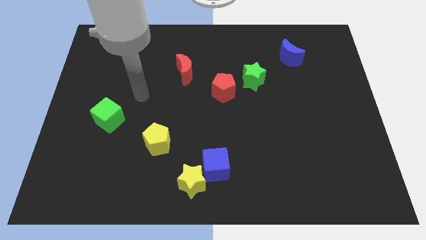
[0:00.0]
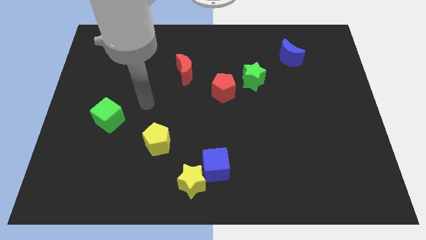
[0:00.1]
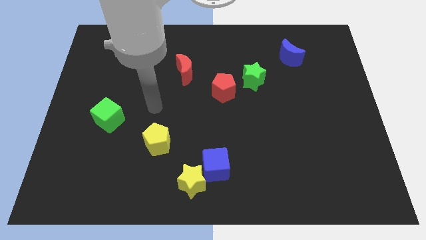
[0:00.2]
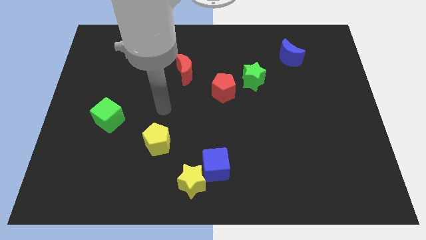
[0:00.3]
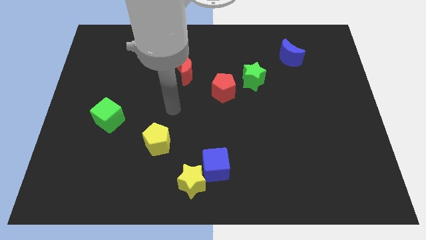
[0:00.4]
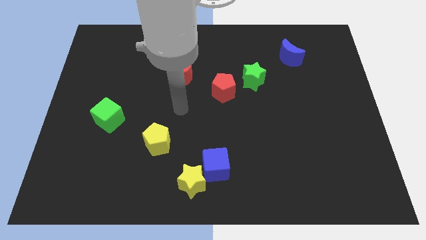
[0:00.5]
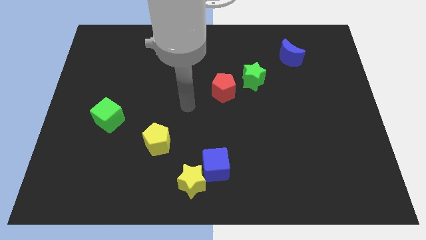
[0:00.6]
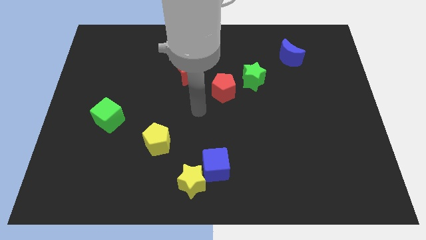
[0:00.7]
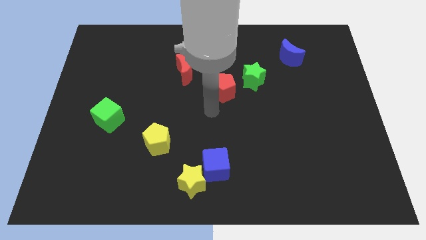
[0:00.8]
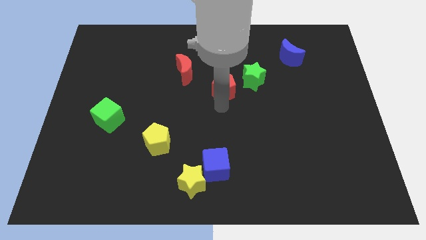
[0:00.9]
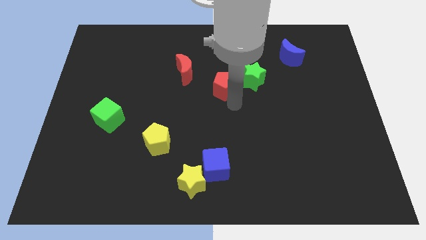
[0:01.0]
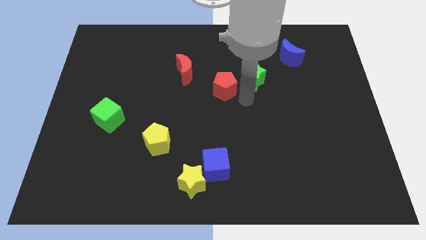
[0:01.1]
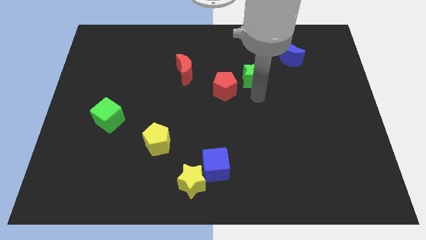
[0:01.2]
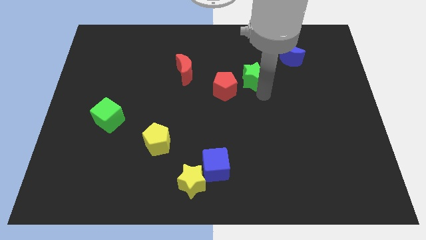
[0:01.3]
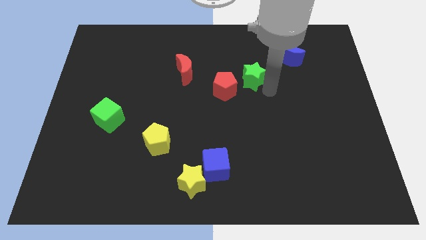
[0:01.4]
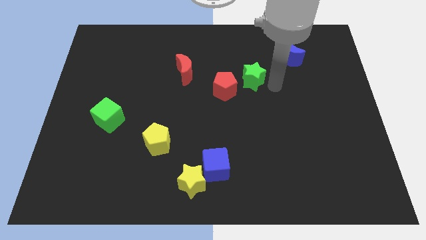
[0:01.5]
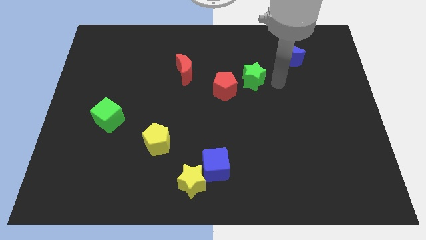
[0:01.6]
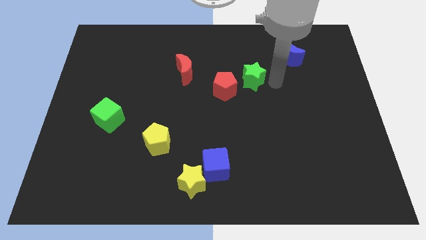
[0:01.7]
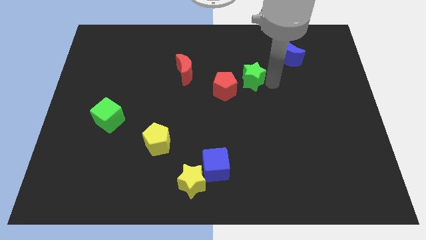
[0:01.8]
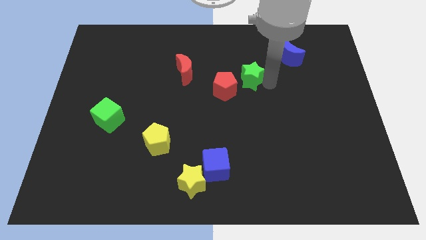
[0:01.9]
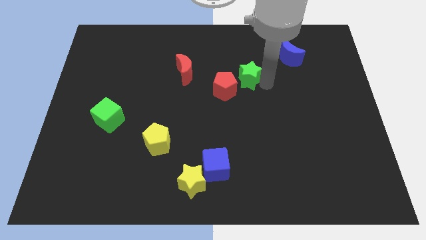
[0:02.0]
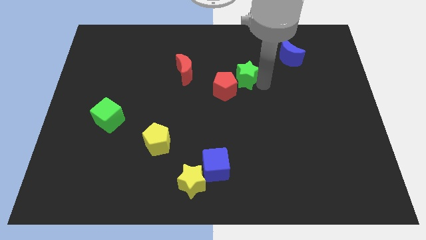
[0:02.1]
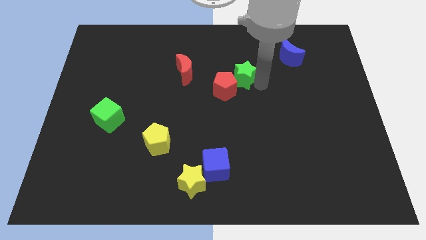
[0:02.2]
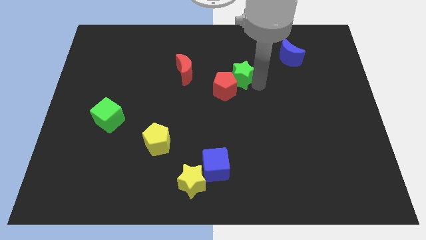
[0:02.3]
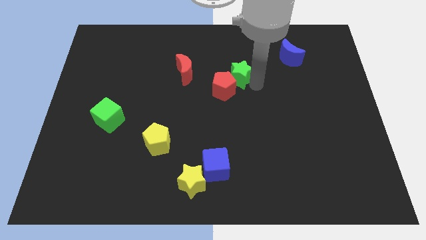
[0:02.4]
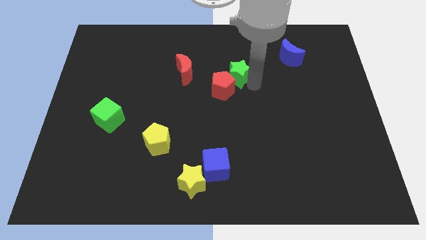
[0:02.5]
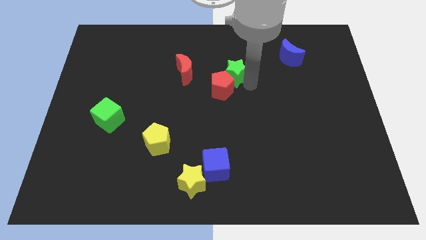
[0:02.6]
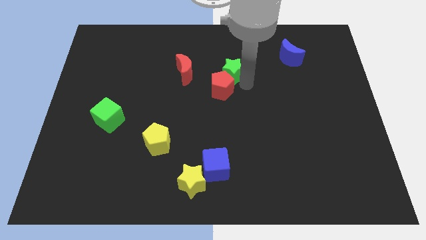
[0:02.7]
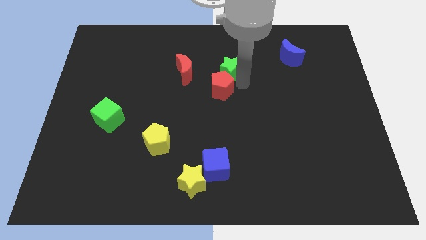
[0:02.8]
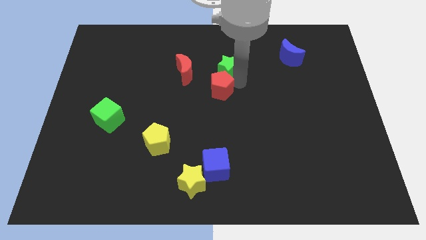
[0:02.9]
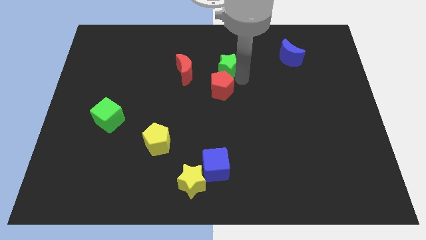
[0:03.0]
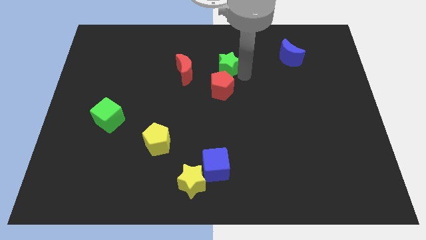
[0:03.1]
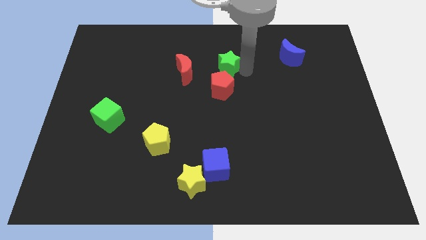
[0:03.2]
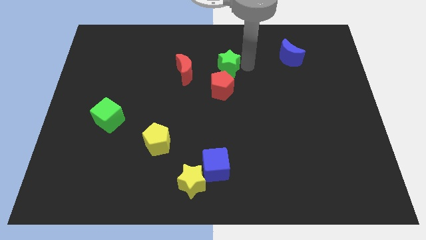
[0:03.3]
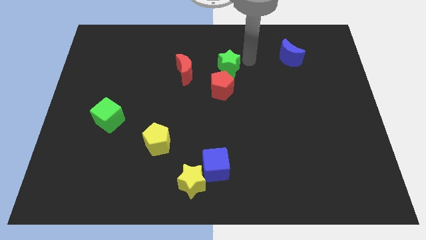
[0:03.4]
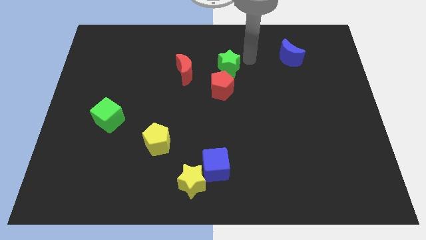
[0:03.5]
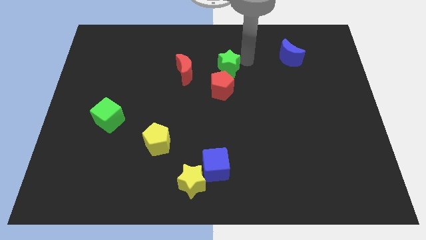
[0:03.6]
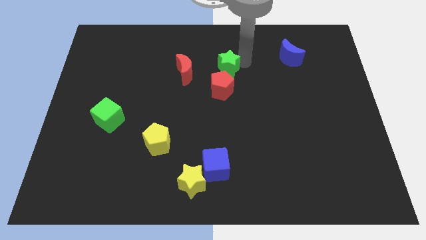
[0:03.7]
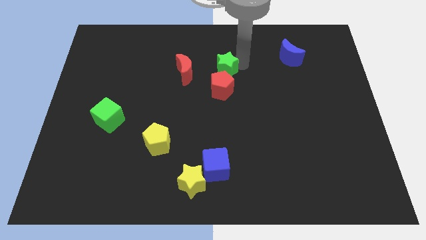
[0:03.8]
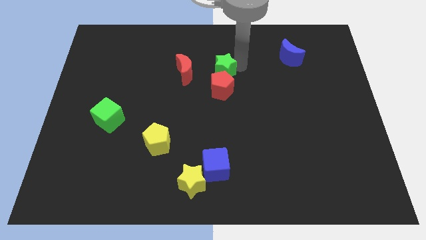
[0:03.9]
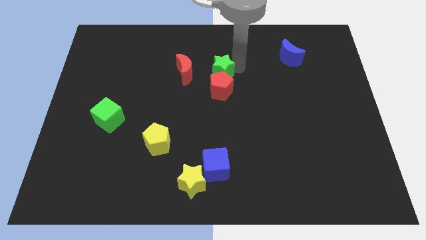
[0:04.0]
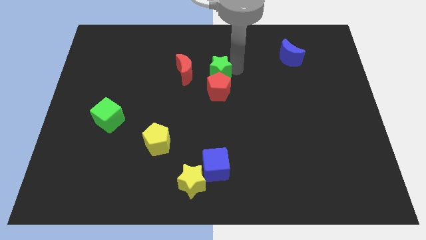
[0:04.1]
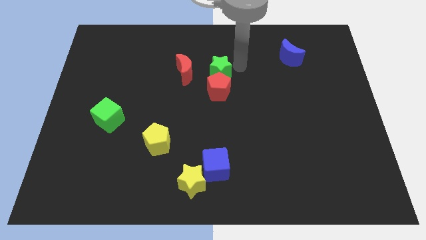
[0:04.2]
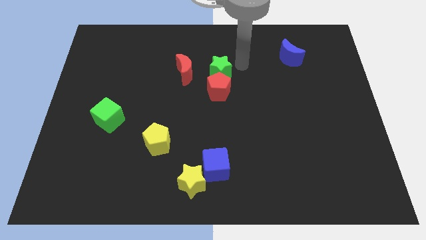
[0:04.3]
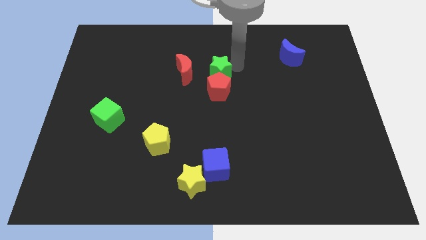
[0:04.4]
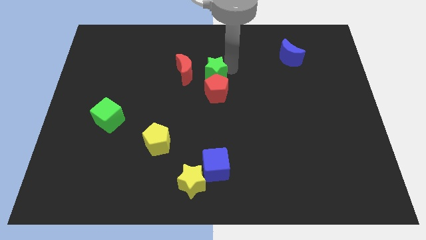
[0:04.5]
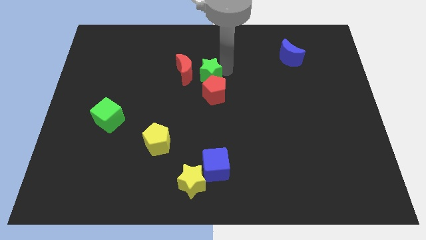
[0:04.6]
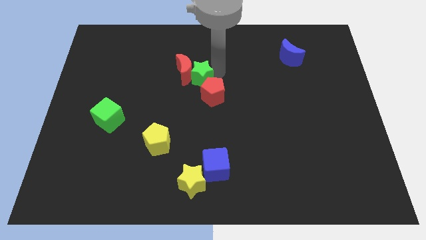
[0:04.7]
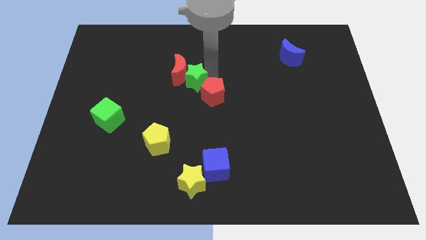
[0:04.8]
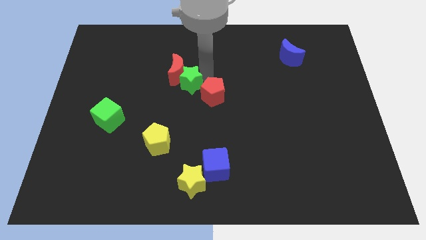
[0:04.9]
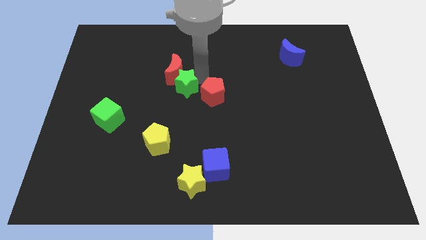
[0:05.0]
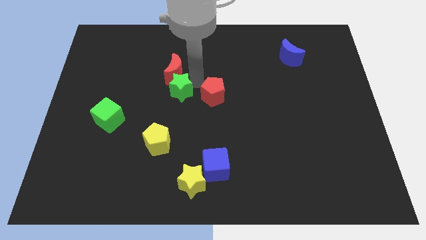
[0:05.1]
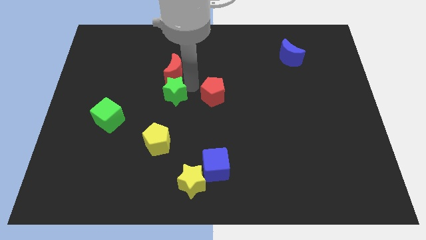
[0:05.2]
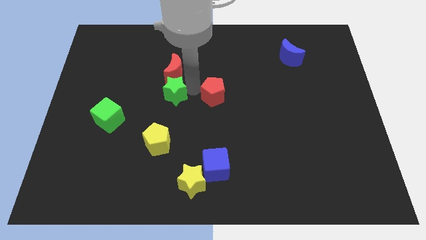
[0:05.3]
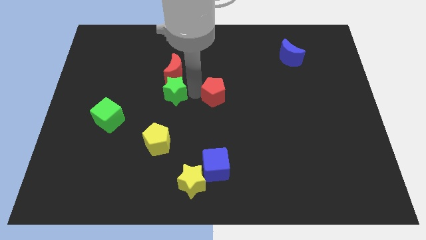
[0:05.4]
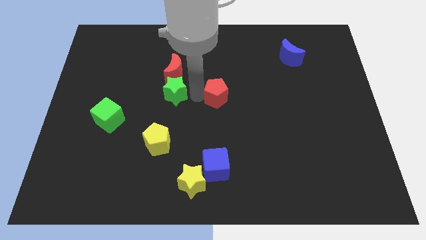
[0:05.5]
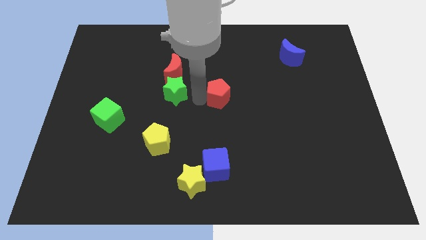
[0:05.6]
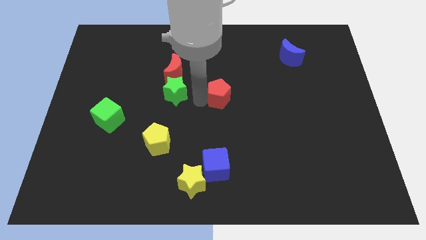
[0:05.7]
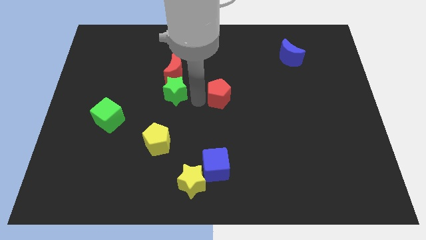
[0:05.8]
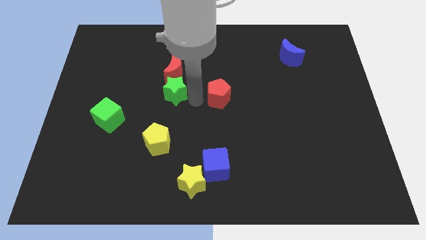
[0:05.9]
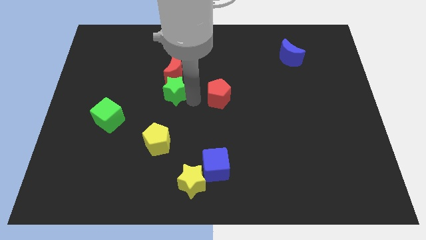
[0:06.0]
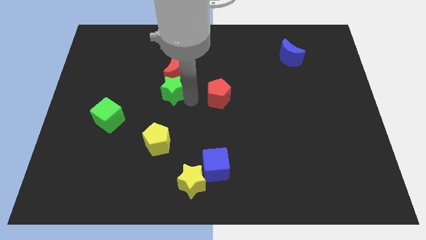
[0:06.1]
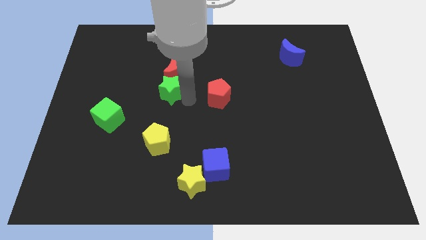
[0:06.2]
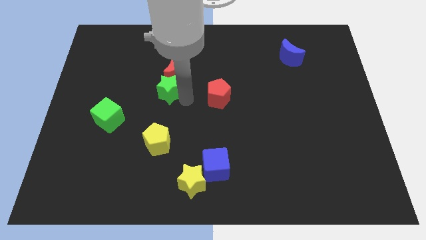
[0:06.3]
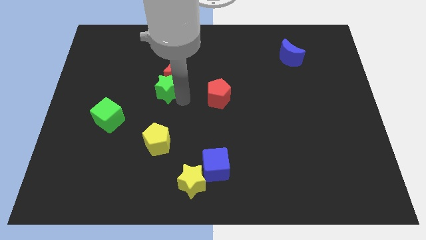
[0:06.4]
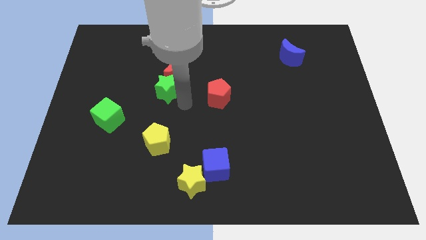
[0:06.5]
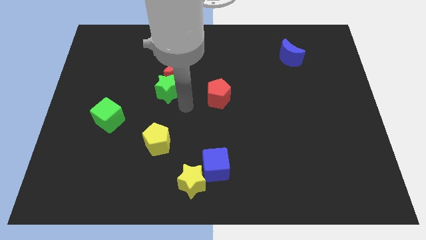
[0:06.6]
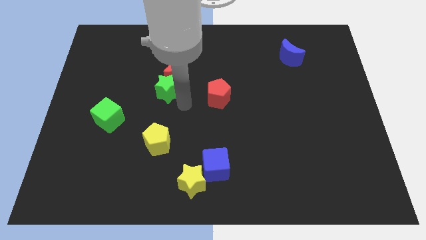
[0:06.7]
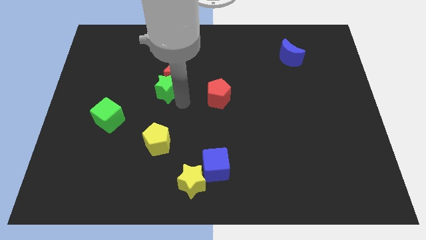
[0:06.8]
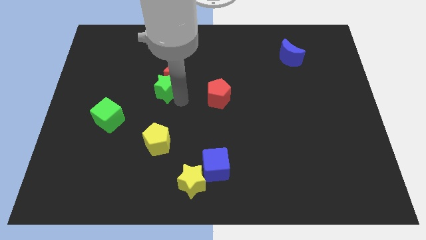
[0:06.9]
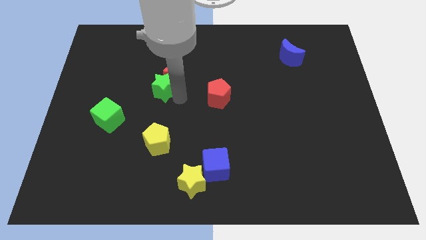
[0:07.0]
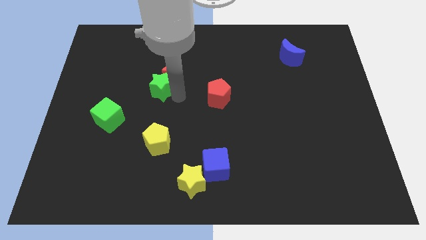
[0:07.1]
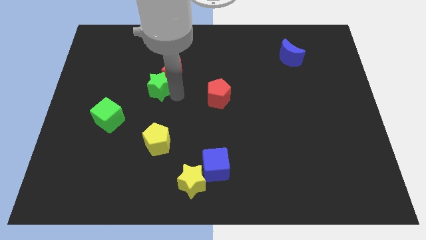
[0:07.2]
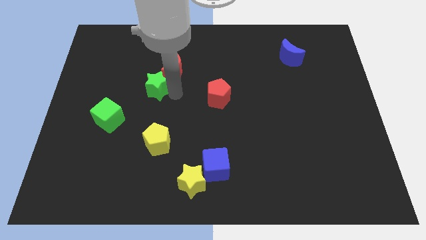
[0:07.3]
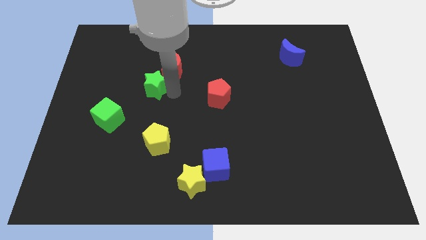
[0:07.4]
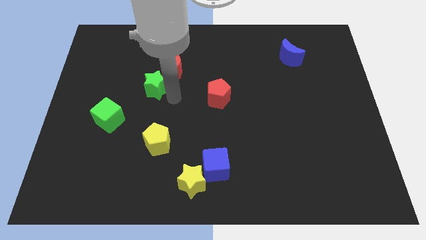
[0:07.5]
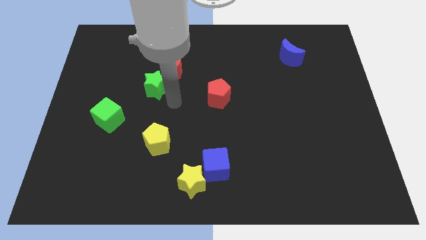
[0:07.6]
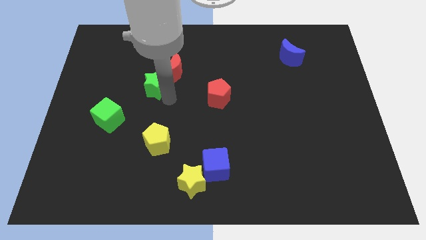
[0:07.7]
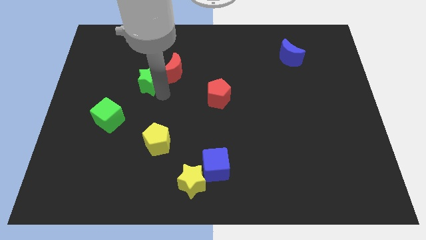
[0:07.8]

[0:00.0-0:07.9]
move the green star to the left of the red moon
